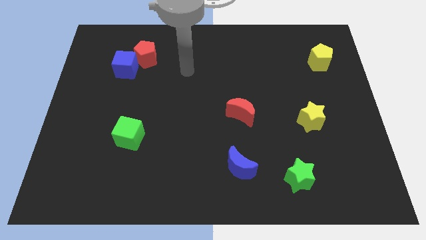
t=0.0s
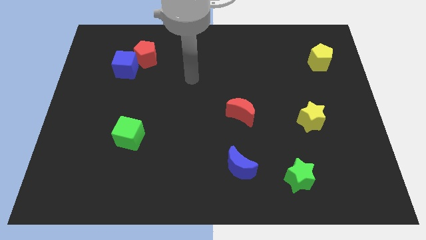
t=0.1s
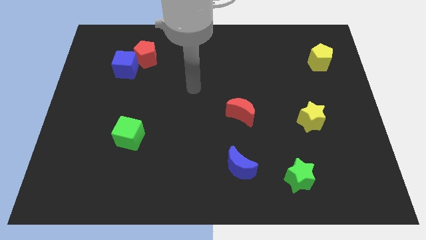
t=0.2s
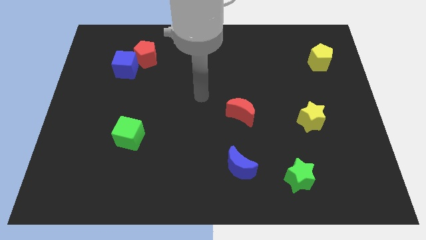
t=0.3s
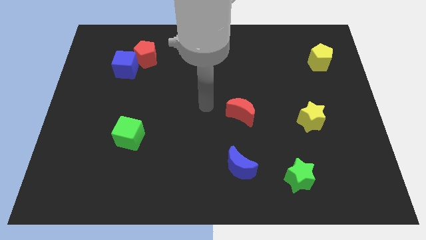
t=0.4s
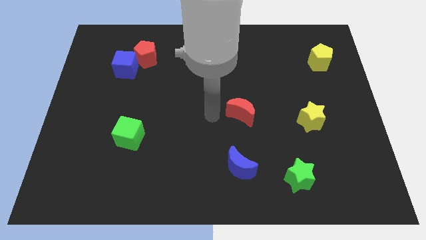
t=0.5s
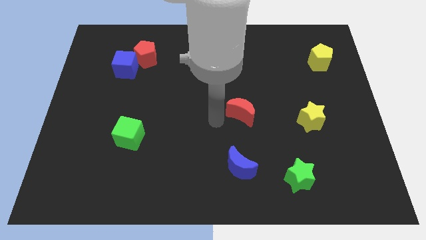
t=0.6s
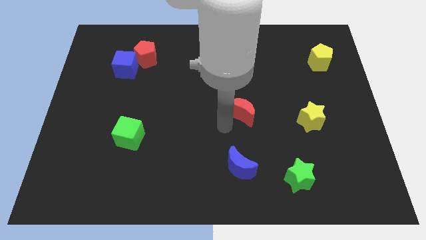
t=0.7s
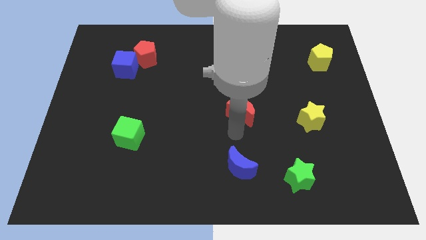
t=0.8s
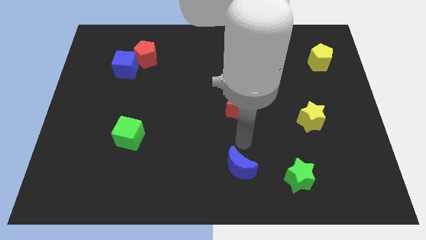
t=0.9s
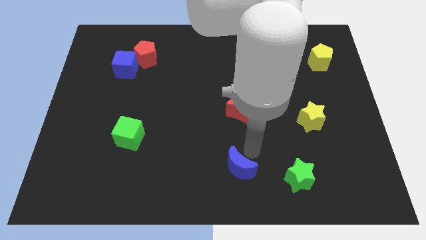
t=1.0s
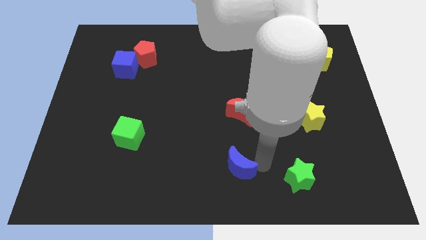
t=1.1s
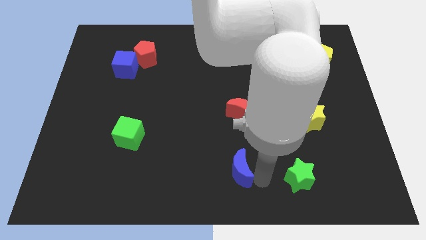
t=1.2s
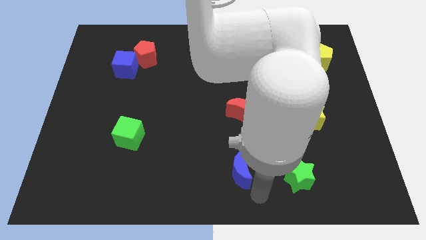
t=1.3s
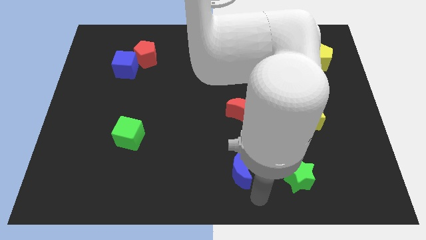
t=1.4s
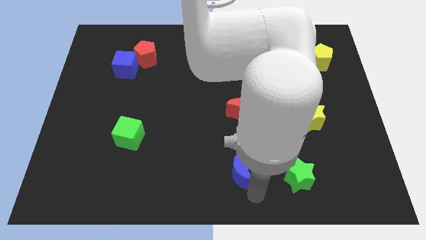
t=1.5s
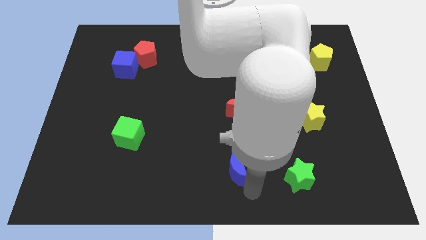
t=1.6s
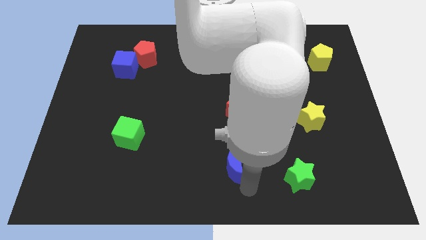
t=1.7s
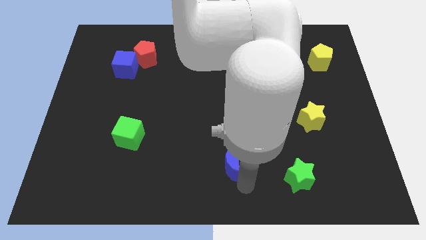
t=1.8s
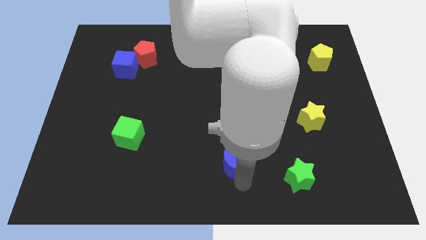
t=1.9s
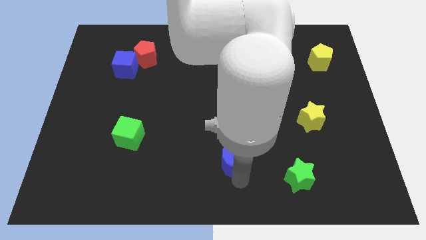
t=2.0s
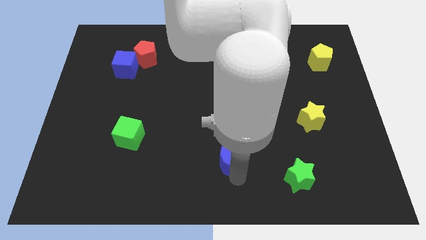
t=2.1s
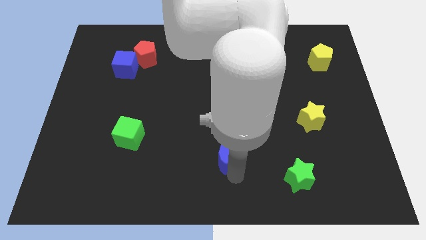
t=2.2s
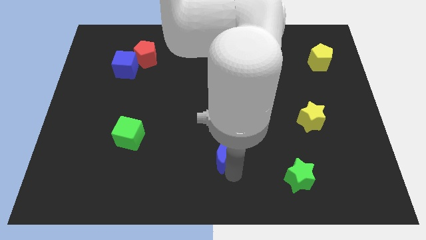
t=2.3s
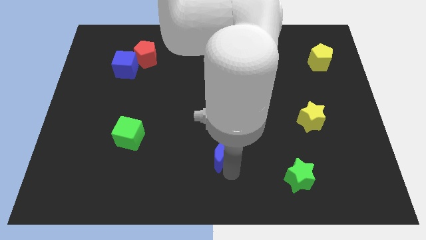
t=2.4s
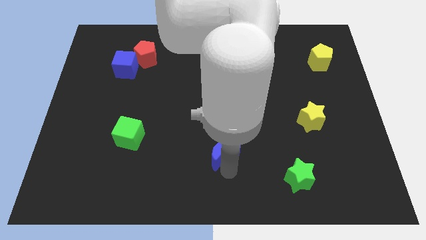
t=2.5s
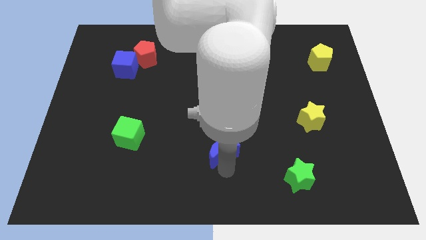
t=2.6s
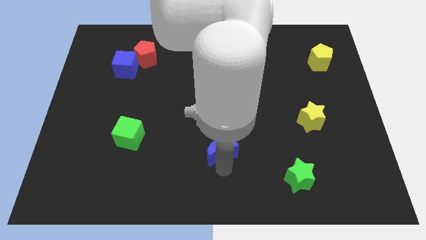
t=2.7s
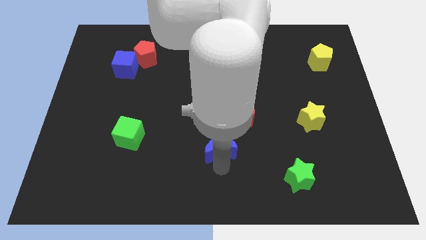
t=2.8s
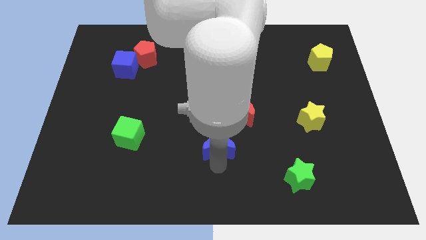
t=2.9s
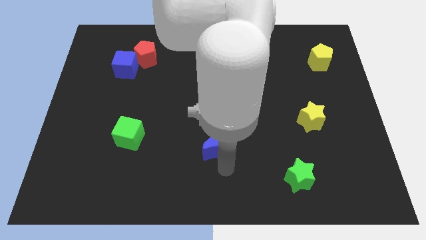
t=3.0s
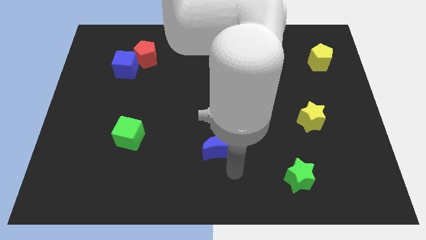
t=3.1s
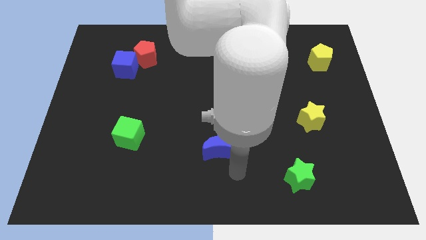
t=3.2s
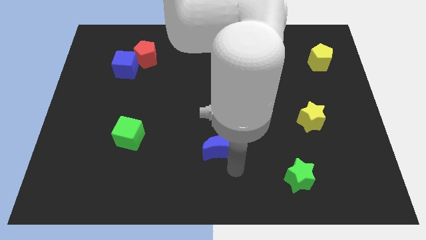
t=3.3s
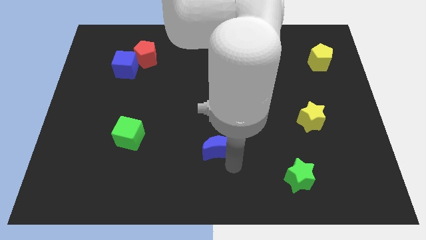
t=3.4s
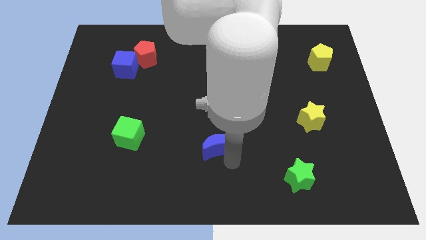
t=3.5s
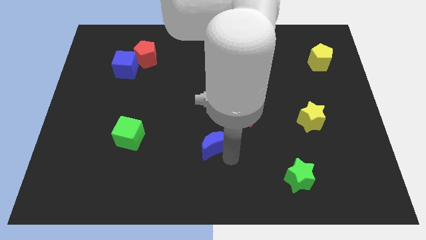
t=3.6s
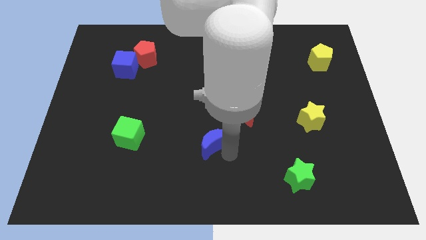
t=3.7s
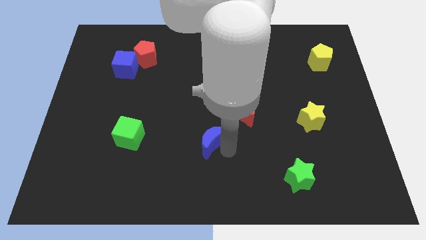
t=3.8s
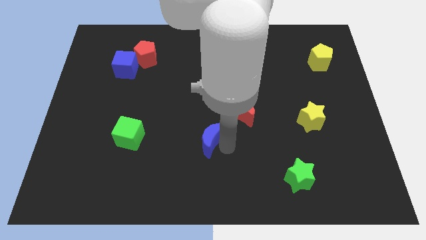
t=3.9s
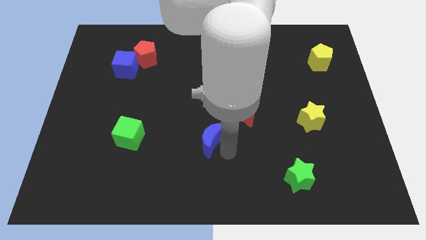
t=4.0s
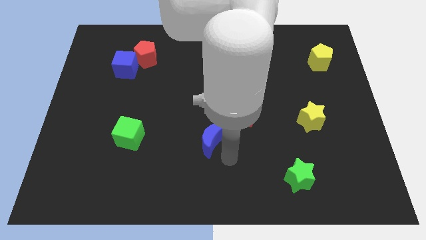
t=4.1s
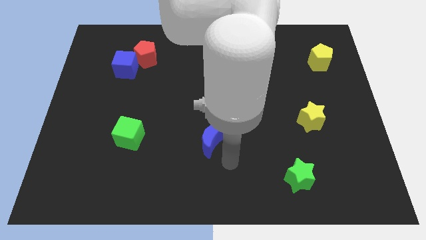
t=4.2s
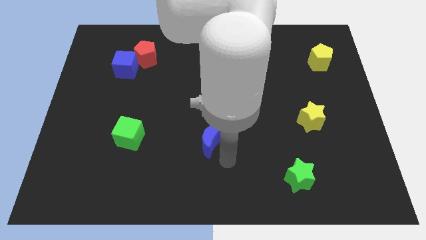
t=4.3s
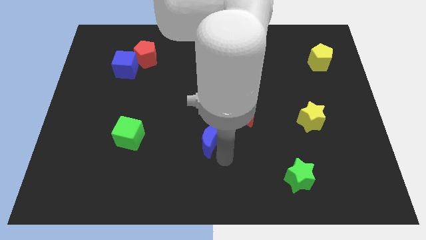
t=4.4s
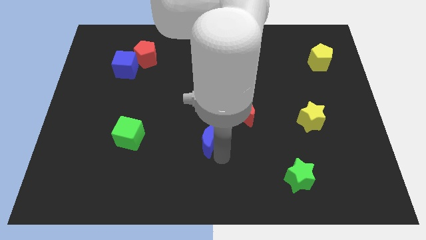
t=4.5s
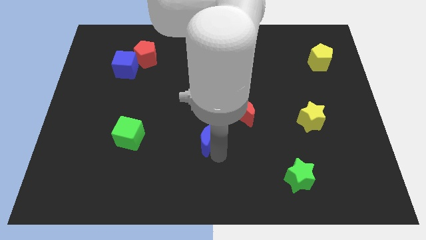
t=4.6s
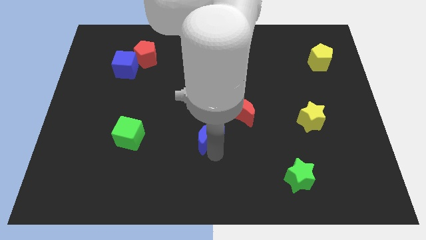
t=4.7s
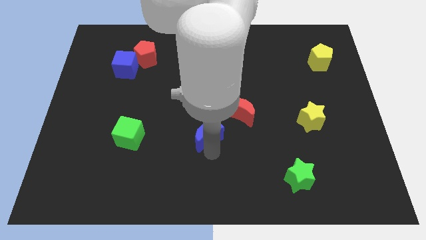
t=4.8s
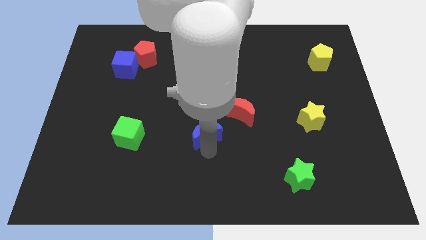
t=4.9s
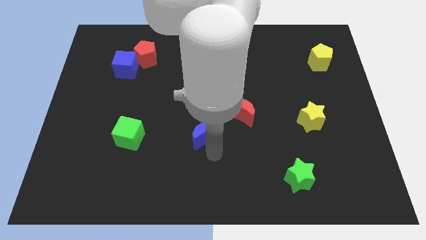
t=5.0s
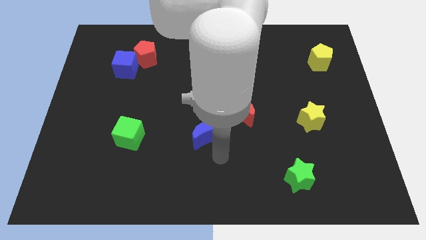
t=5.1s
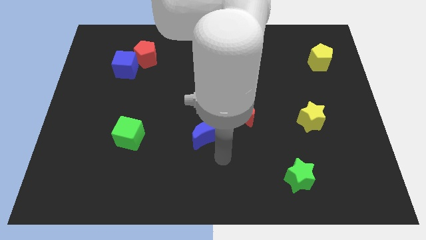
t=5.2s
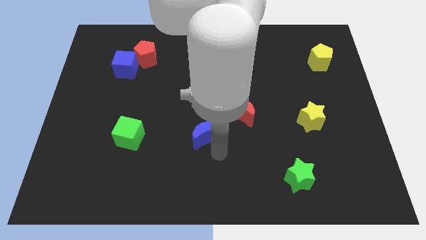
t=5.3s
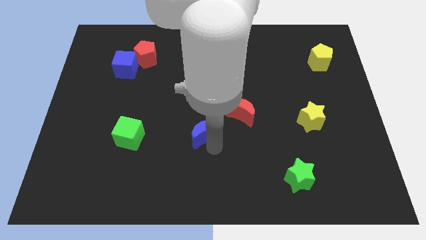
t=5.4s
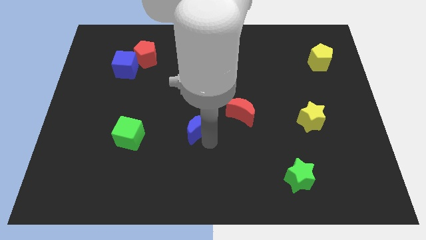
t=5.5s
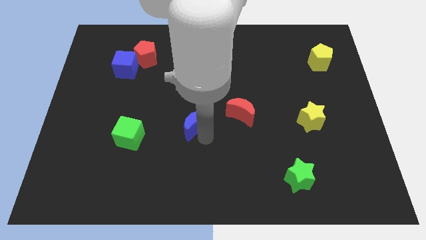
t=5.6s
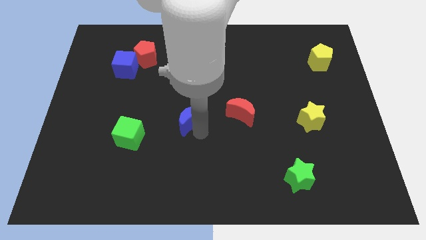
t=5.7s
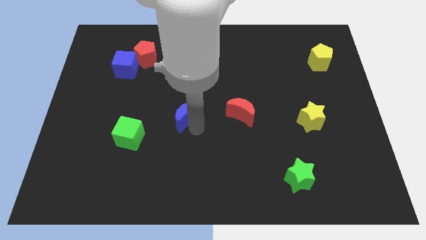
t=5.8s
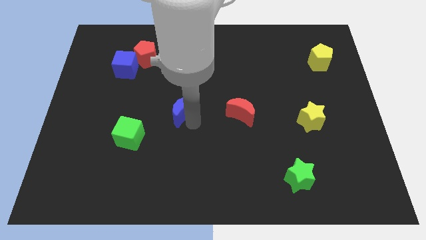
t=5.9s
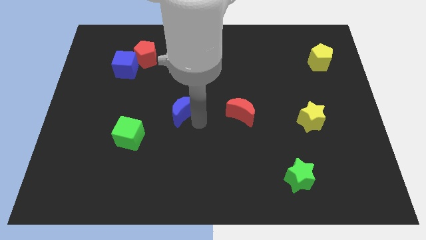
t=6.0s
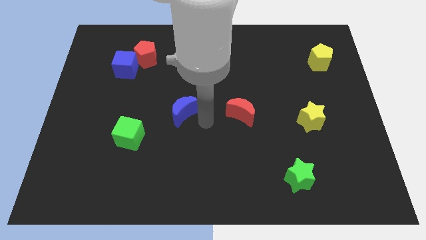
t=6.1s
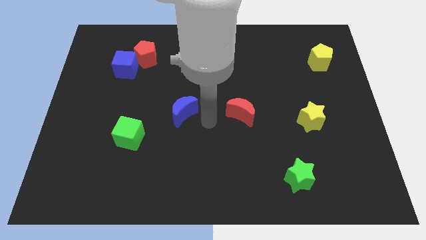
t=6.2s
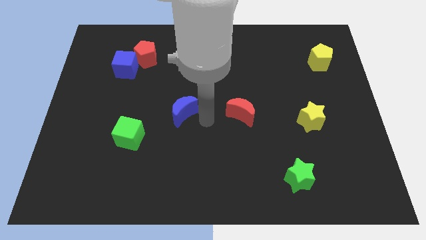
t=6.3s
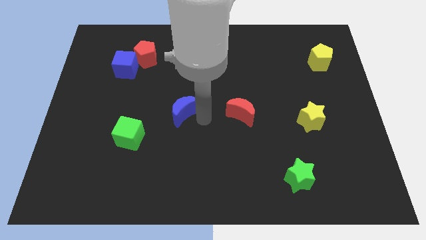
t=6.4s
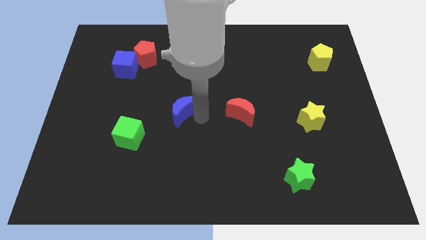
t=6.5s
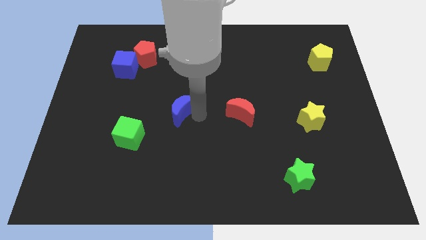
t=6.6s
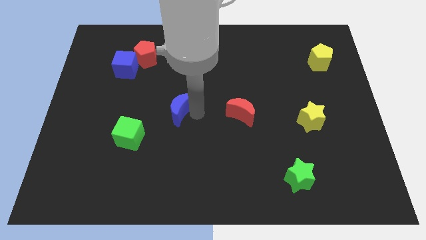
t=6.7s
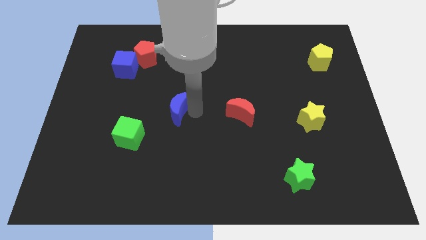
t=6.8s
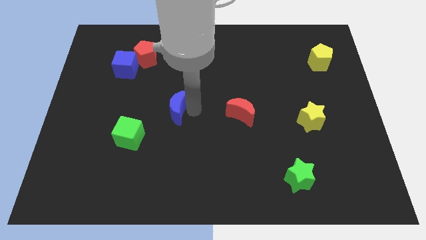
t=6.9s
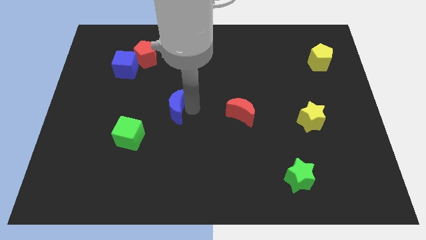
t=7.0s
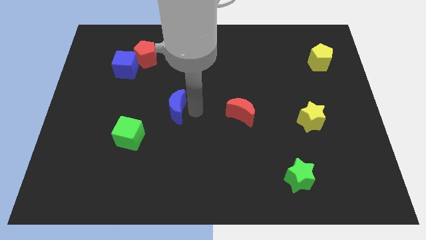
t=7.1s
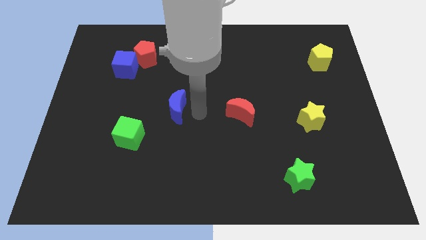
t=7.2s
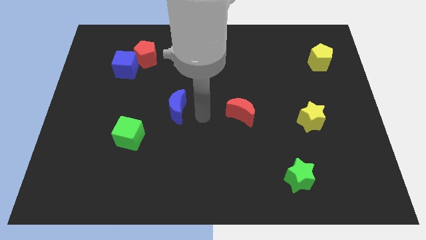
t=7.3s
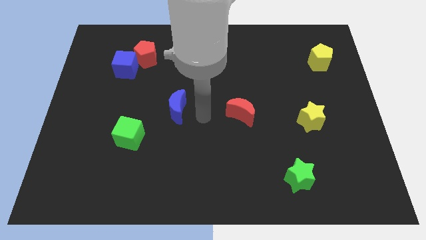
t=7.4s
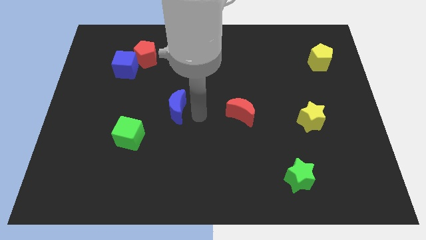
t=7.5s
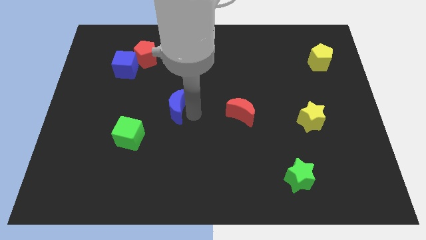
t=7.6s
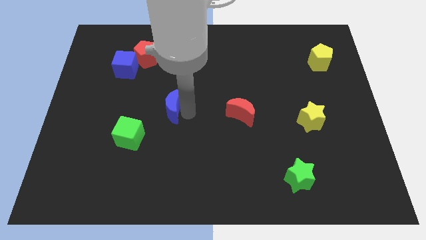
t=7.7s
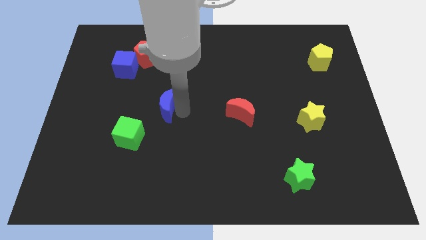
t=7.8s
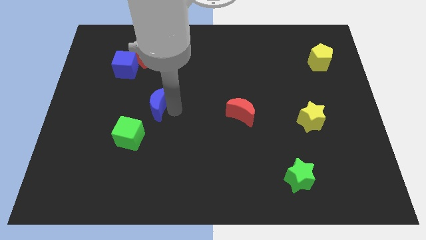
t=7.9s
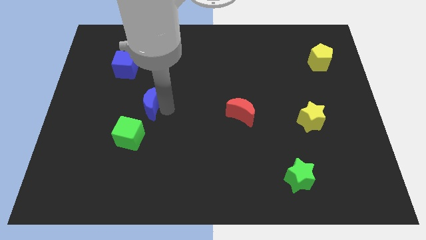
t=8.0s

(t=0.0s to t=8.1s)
put the blue moon to the top of the green cube
